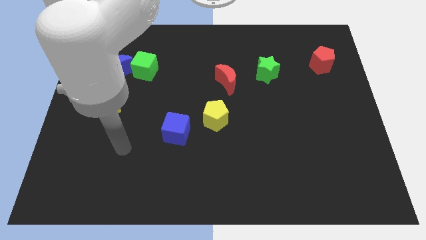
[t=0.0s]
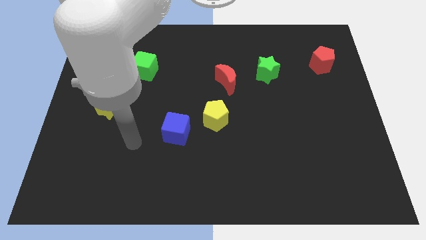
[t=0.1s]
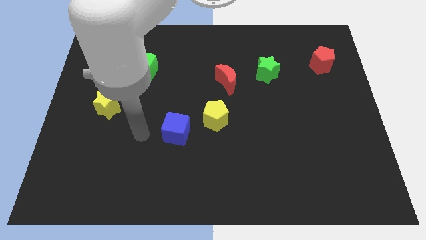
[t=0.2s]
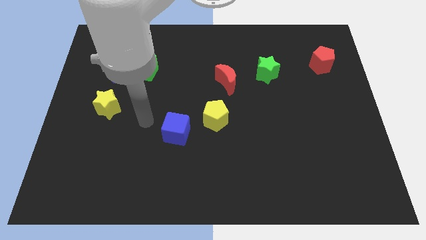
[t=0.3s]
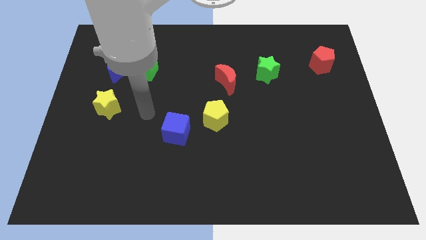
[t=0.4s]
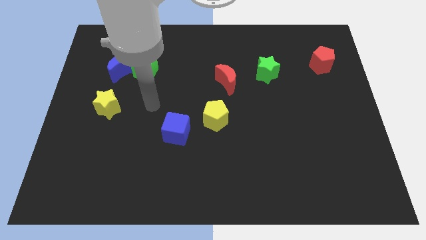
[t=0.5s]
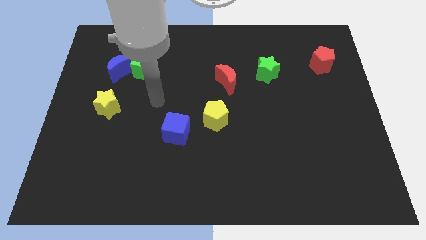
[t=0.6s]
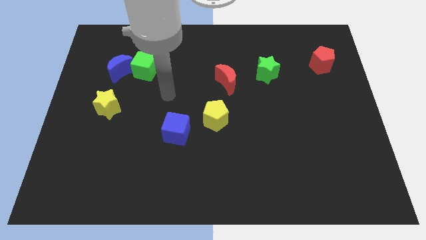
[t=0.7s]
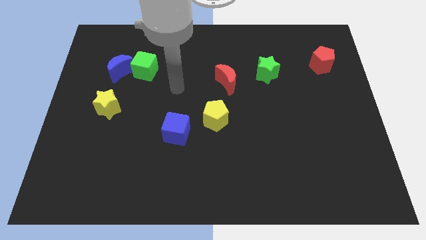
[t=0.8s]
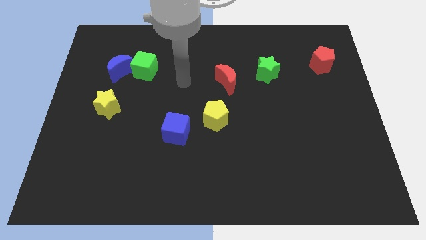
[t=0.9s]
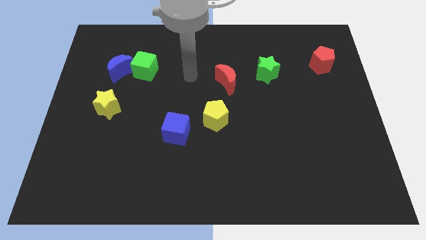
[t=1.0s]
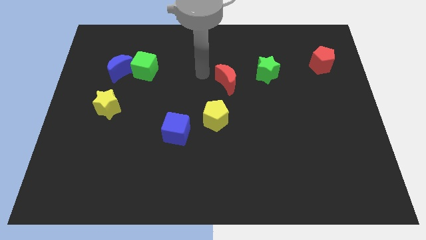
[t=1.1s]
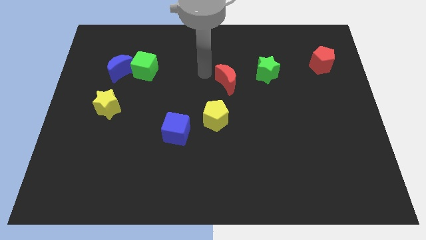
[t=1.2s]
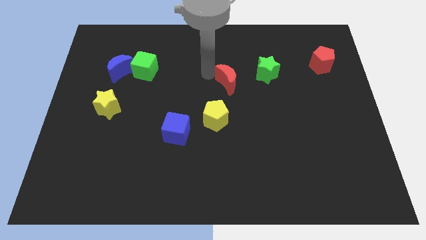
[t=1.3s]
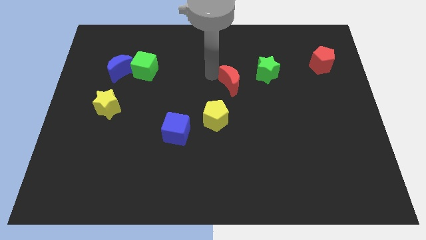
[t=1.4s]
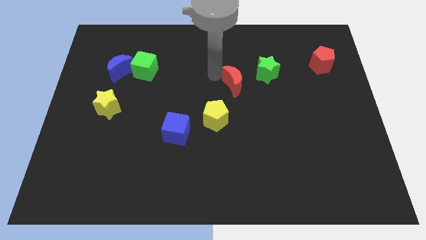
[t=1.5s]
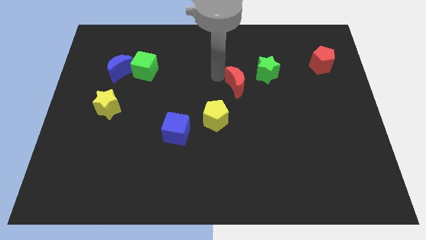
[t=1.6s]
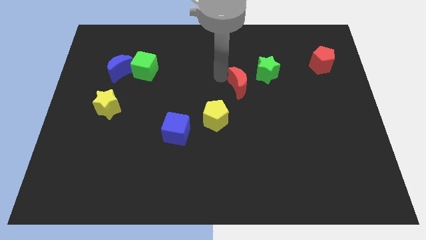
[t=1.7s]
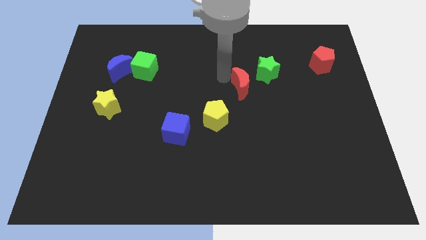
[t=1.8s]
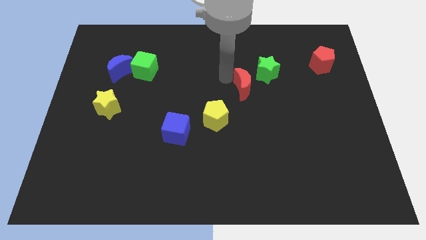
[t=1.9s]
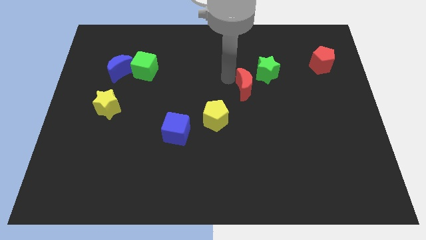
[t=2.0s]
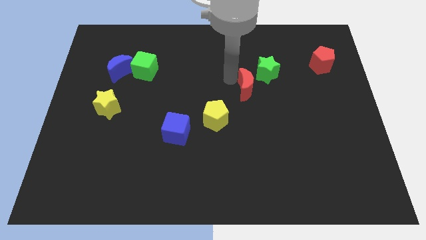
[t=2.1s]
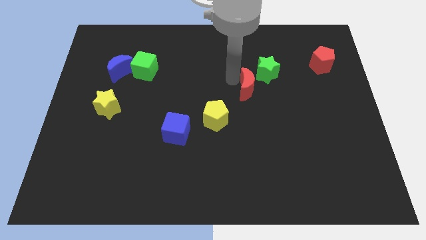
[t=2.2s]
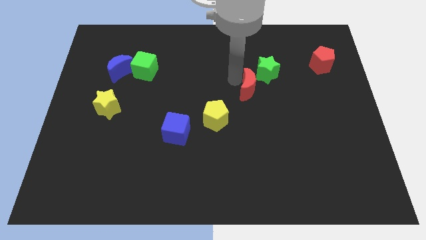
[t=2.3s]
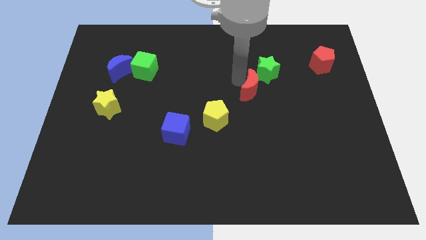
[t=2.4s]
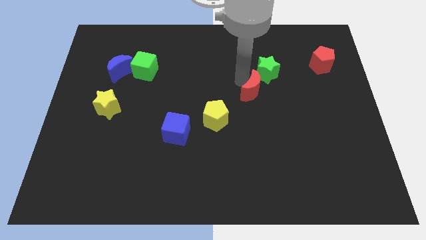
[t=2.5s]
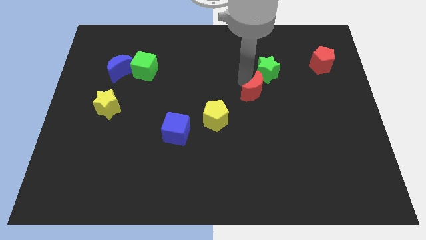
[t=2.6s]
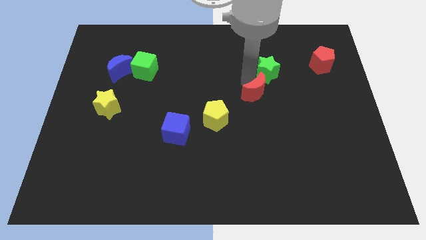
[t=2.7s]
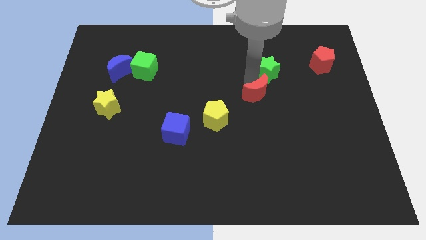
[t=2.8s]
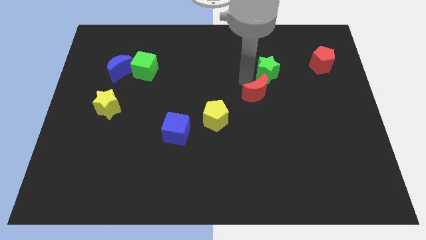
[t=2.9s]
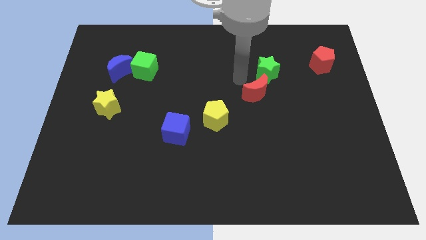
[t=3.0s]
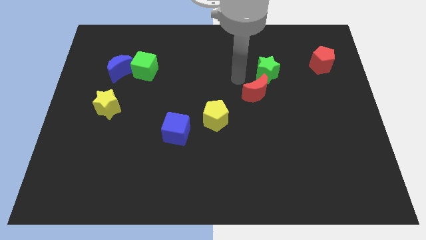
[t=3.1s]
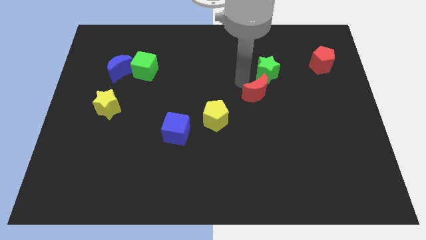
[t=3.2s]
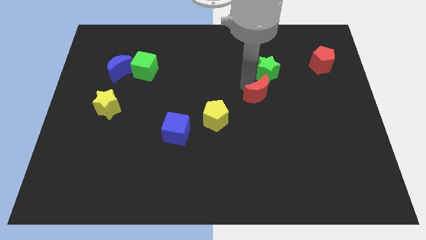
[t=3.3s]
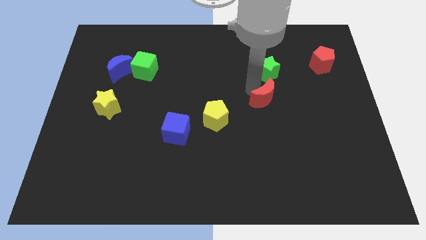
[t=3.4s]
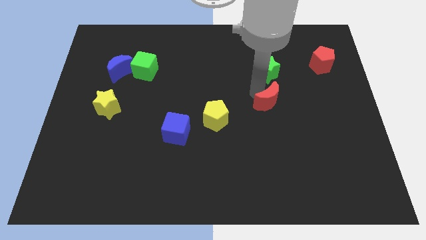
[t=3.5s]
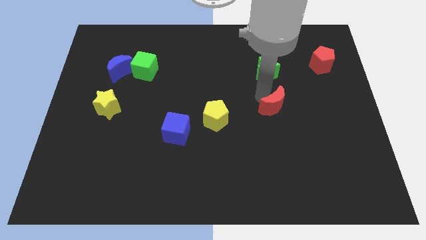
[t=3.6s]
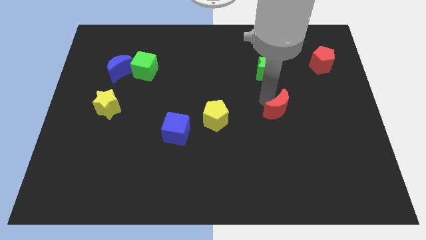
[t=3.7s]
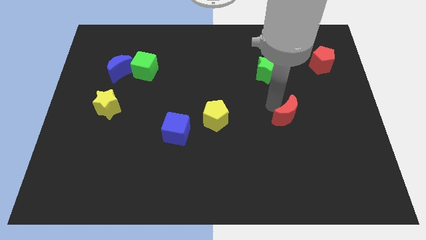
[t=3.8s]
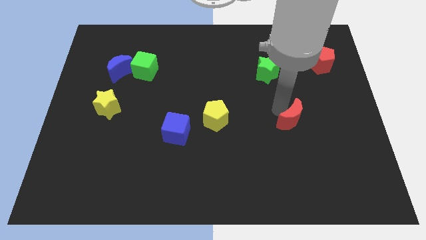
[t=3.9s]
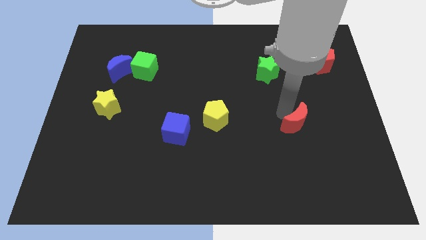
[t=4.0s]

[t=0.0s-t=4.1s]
move the red moon diagonally down and to the right

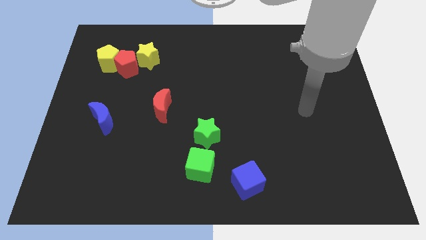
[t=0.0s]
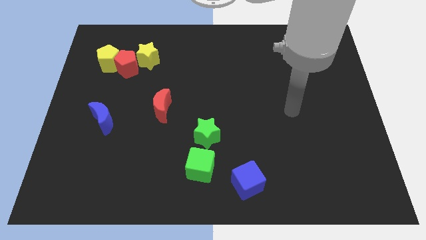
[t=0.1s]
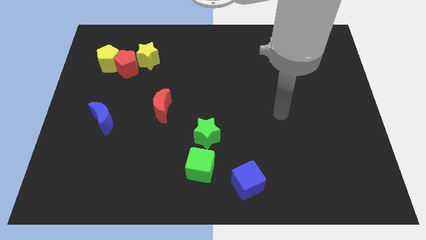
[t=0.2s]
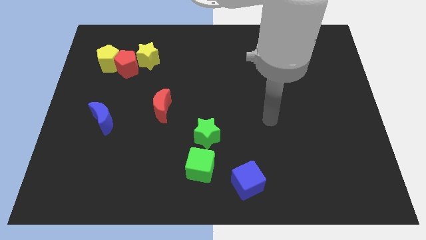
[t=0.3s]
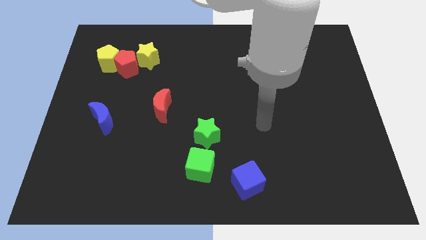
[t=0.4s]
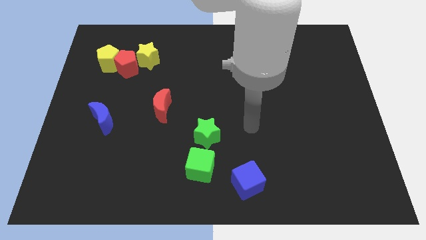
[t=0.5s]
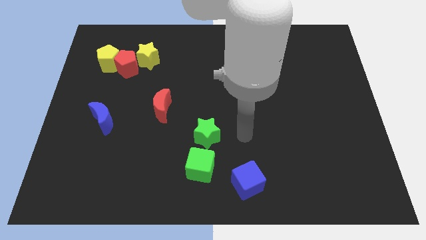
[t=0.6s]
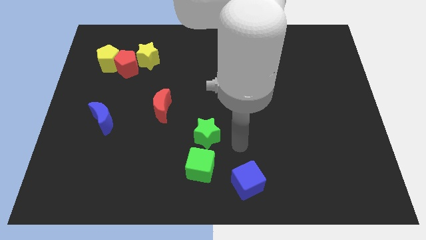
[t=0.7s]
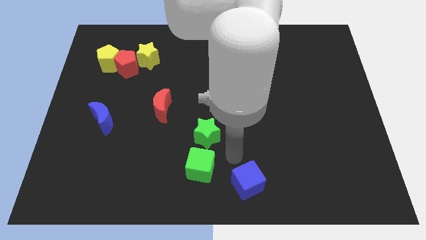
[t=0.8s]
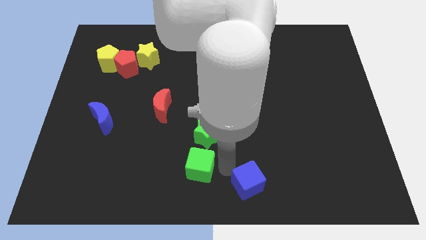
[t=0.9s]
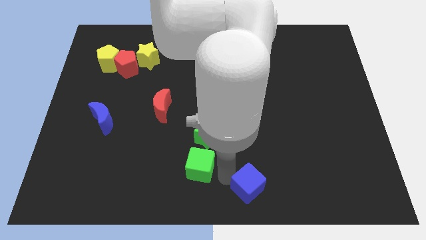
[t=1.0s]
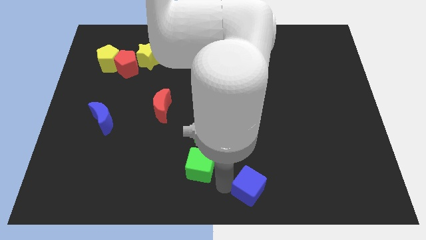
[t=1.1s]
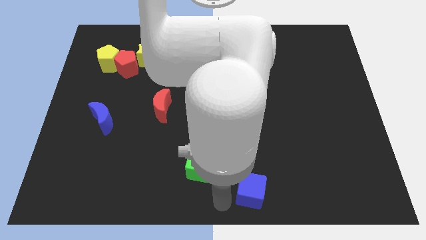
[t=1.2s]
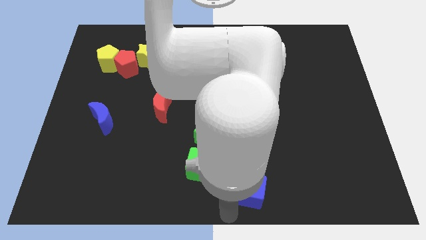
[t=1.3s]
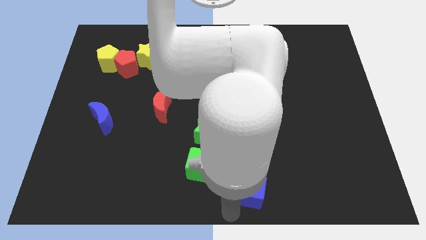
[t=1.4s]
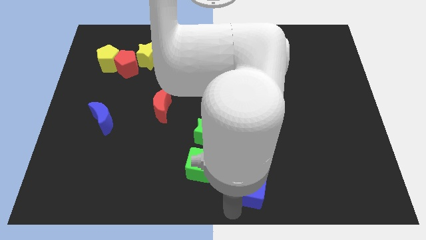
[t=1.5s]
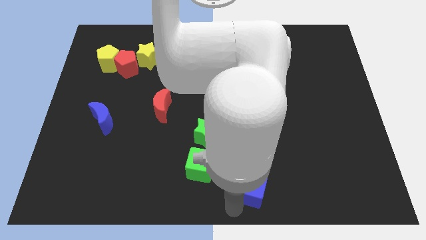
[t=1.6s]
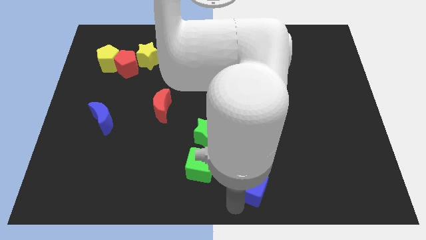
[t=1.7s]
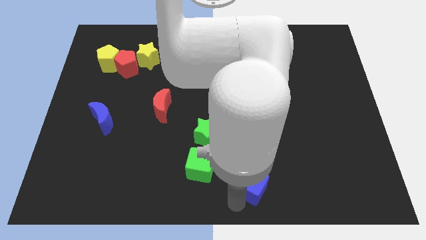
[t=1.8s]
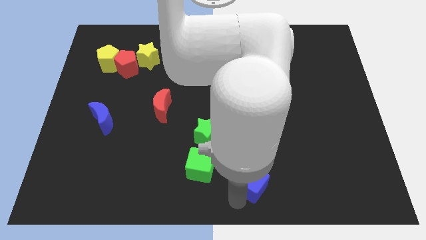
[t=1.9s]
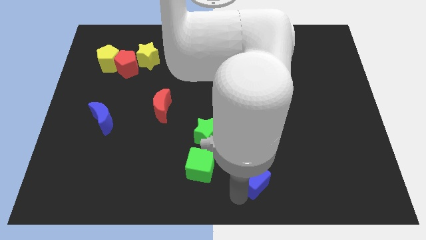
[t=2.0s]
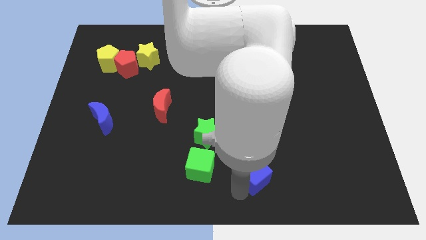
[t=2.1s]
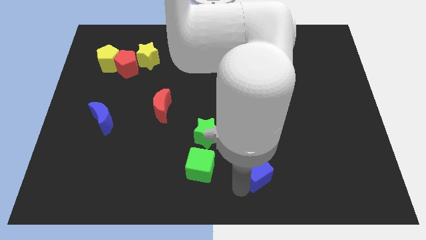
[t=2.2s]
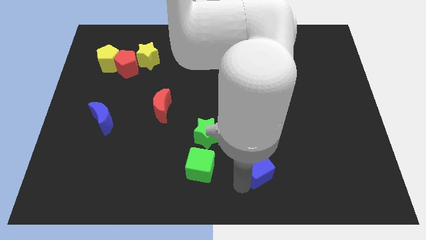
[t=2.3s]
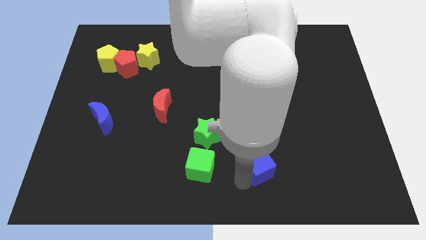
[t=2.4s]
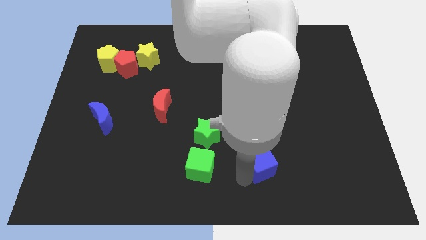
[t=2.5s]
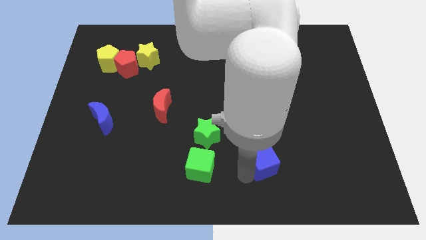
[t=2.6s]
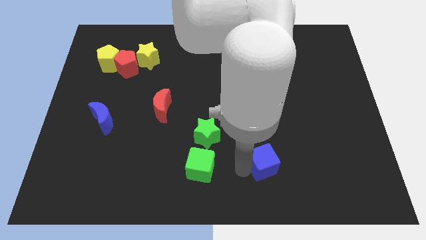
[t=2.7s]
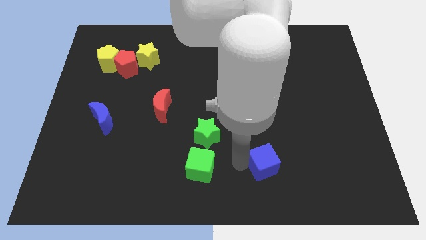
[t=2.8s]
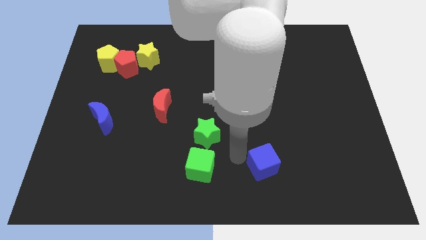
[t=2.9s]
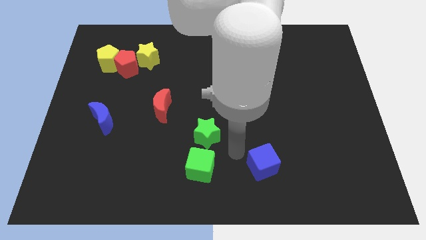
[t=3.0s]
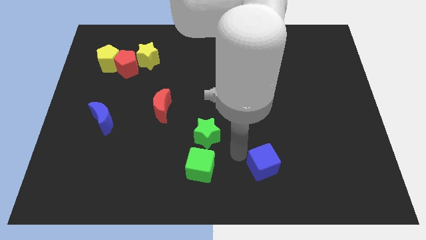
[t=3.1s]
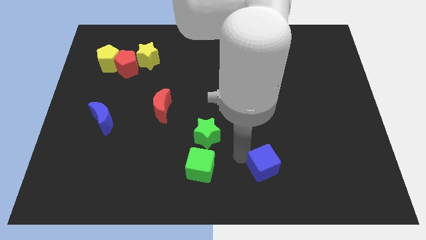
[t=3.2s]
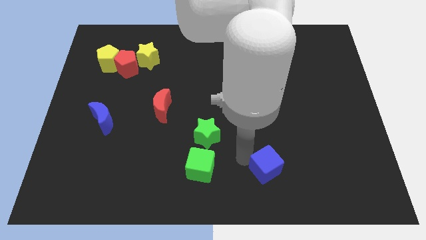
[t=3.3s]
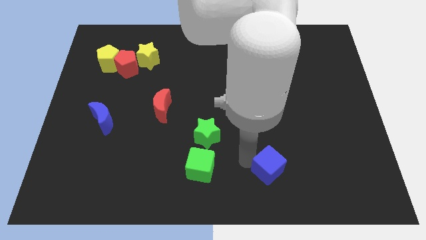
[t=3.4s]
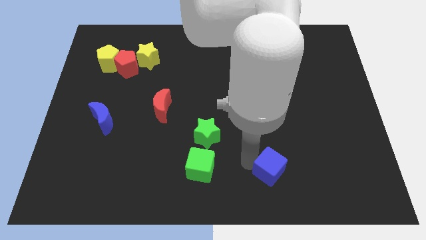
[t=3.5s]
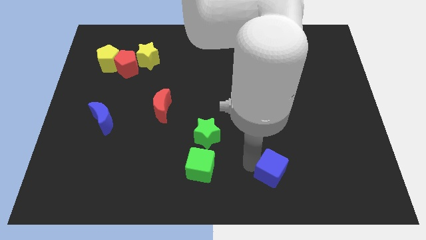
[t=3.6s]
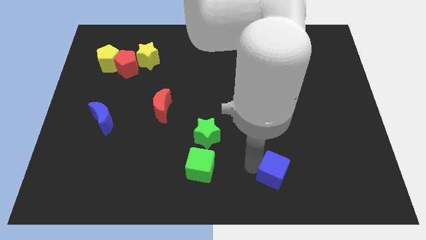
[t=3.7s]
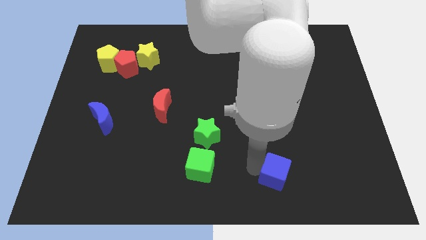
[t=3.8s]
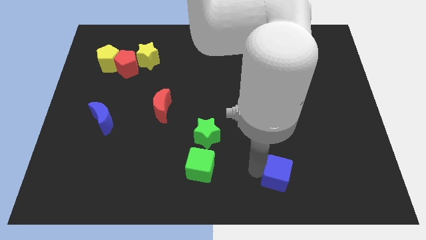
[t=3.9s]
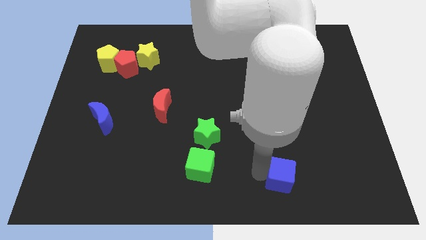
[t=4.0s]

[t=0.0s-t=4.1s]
slide the blue cube right somewhat
